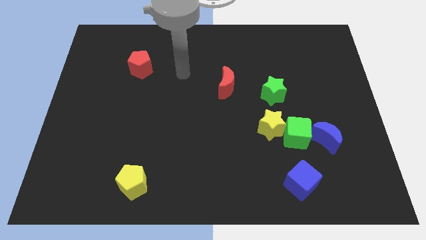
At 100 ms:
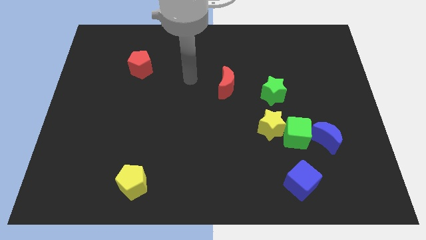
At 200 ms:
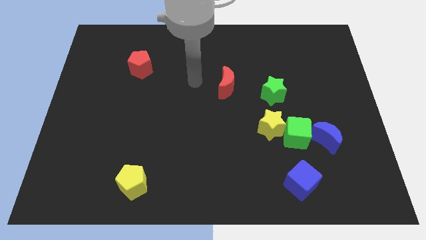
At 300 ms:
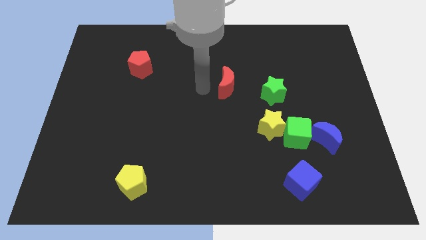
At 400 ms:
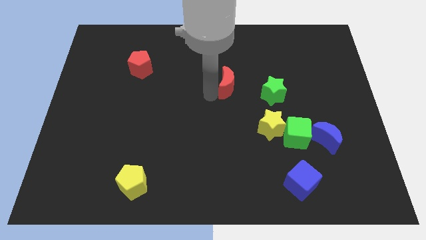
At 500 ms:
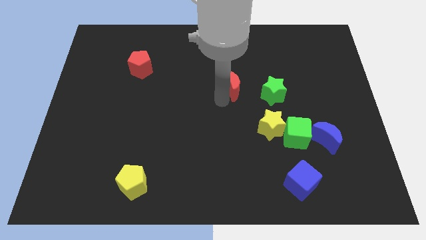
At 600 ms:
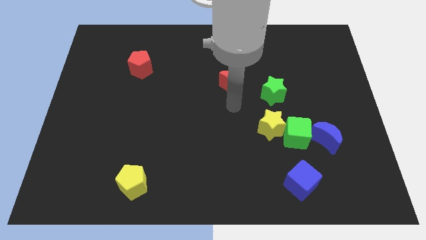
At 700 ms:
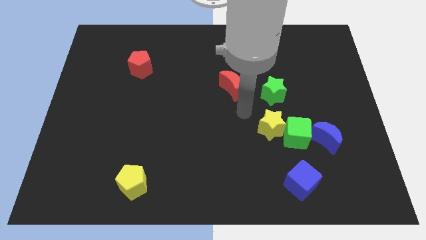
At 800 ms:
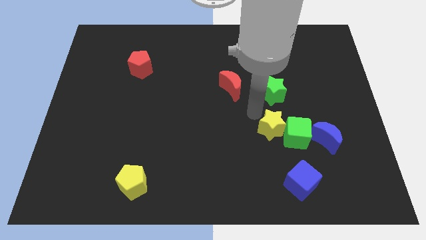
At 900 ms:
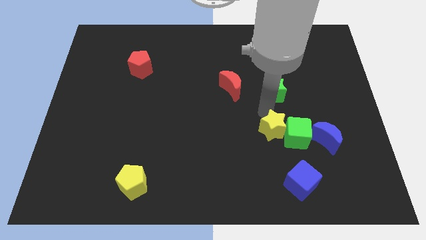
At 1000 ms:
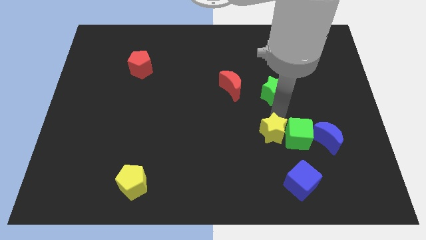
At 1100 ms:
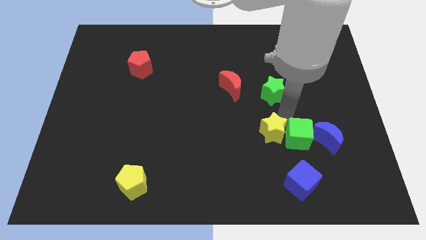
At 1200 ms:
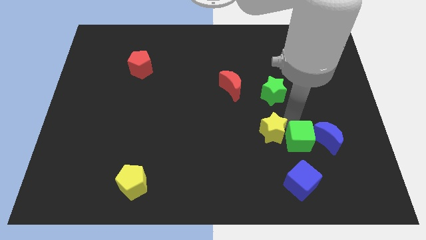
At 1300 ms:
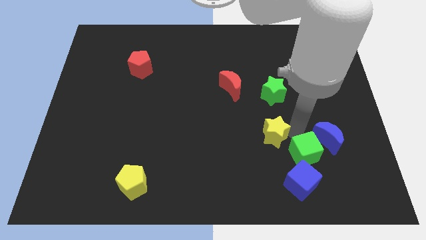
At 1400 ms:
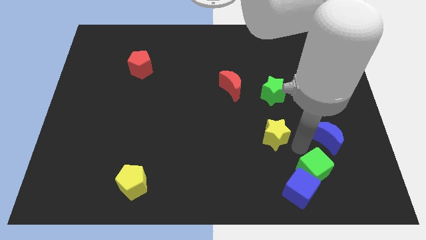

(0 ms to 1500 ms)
pull the yellow star apart from the green cube

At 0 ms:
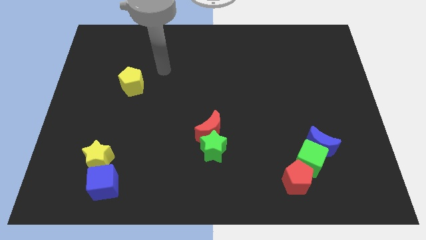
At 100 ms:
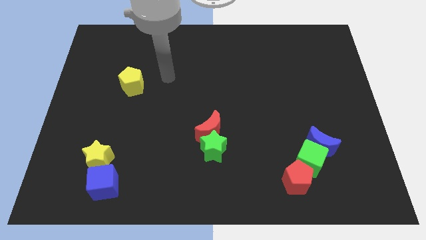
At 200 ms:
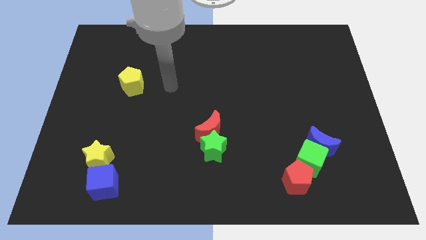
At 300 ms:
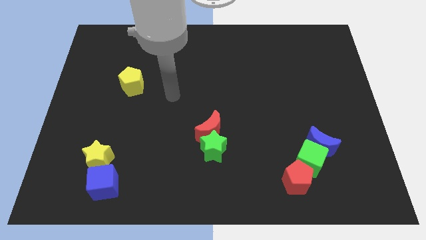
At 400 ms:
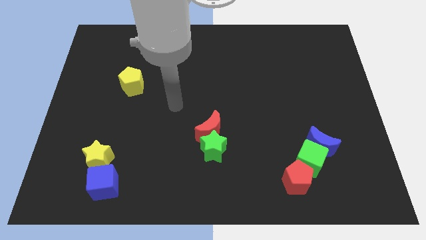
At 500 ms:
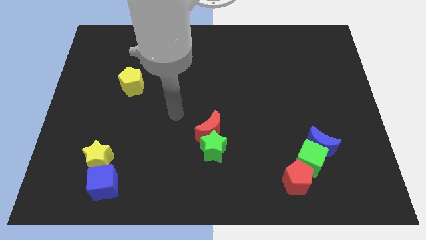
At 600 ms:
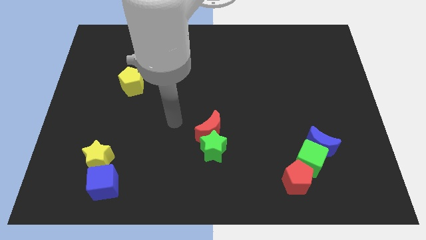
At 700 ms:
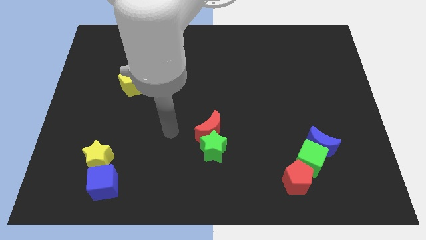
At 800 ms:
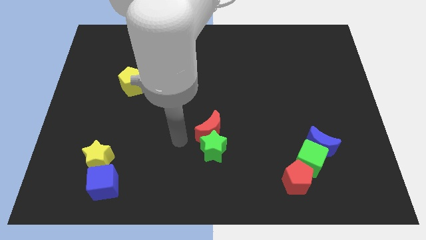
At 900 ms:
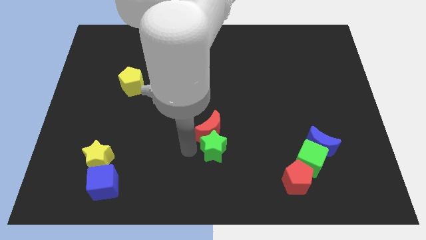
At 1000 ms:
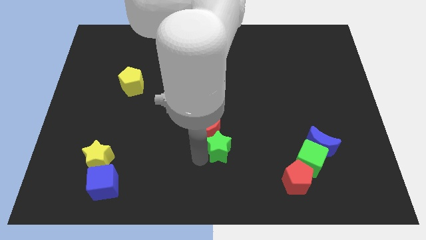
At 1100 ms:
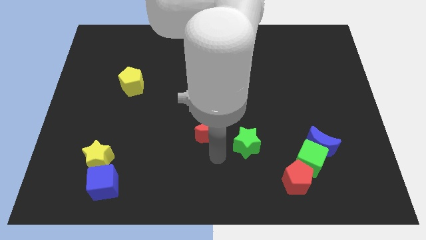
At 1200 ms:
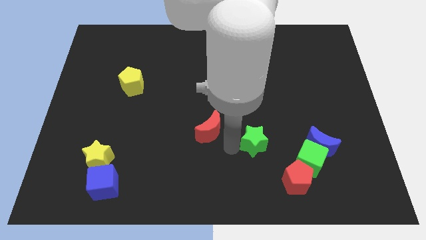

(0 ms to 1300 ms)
move the red moon away from the green star

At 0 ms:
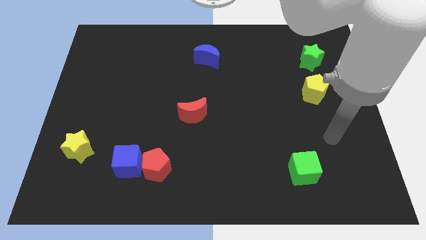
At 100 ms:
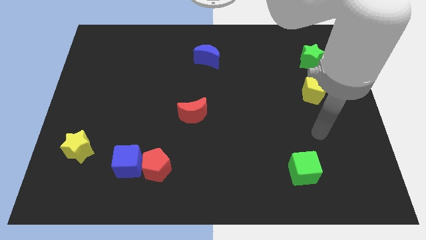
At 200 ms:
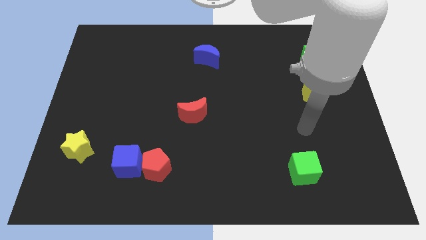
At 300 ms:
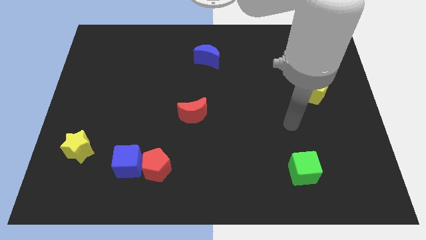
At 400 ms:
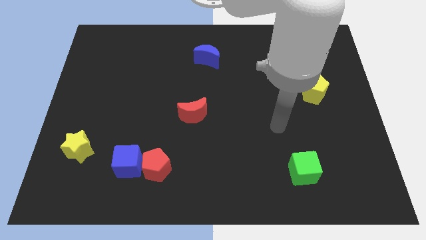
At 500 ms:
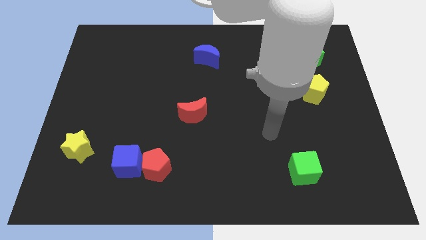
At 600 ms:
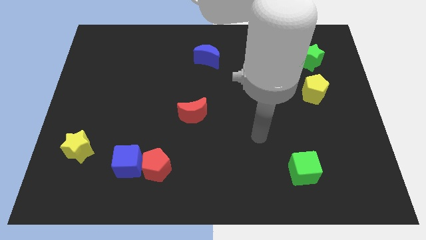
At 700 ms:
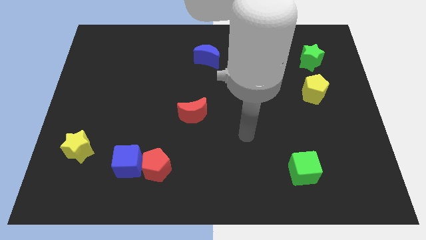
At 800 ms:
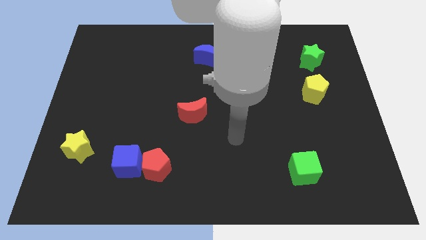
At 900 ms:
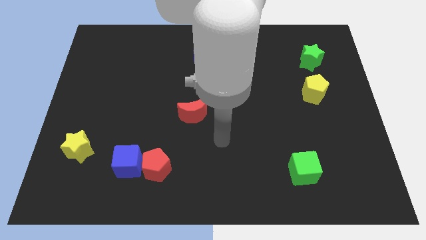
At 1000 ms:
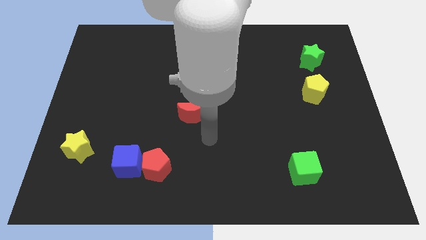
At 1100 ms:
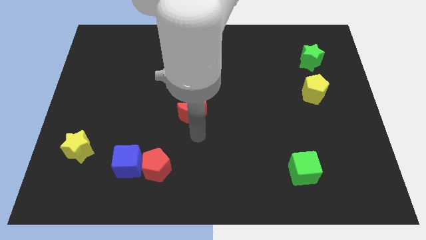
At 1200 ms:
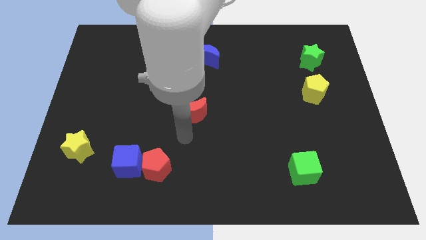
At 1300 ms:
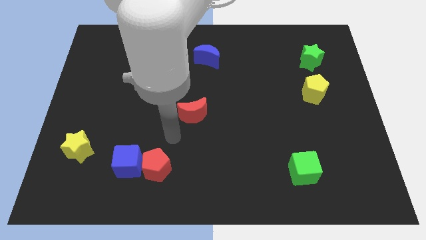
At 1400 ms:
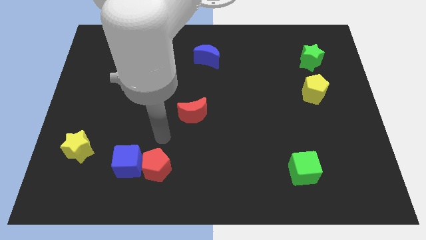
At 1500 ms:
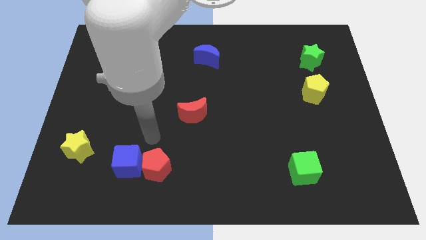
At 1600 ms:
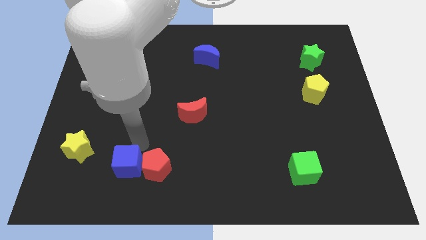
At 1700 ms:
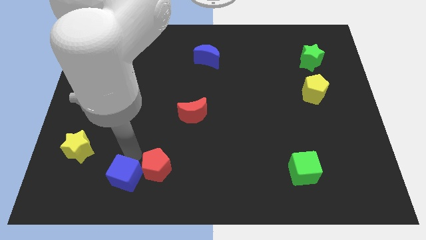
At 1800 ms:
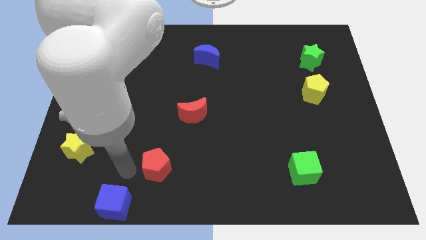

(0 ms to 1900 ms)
move the red pentagon away from the blue cube

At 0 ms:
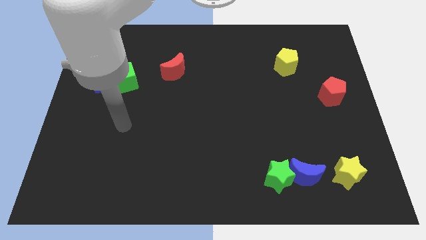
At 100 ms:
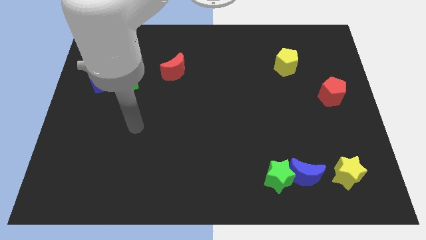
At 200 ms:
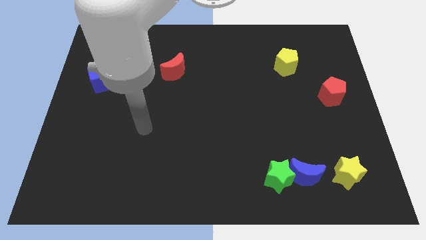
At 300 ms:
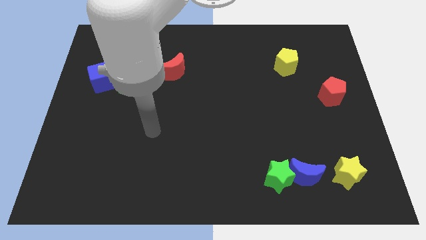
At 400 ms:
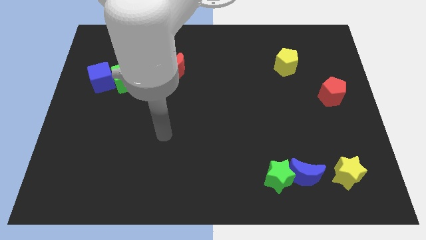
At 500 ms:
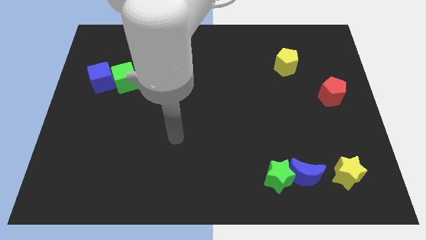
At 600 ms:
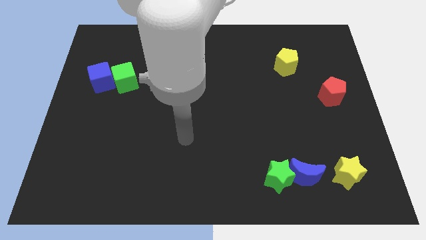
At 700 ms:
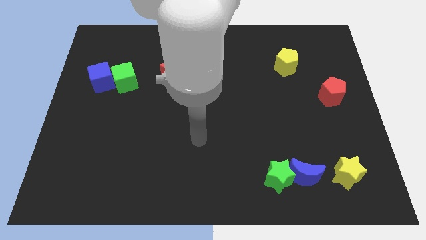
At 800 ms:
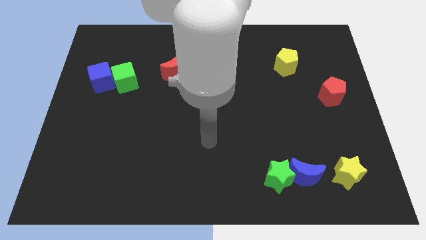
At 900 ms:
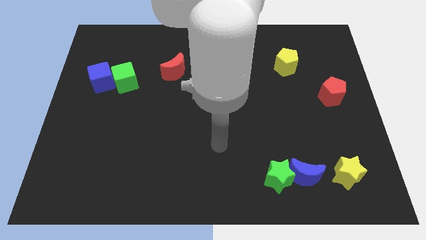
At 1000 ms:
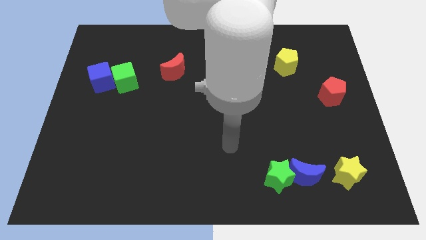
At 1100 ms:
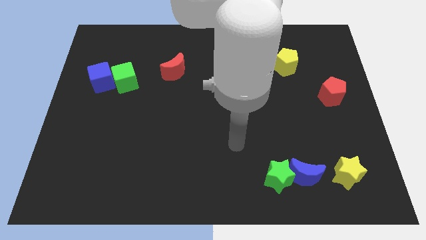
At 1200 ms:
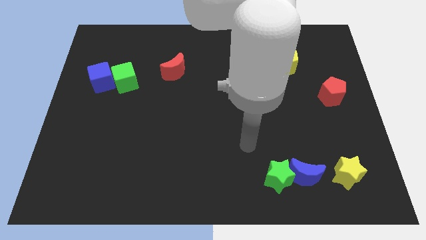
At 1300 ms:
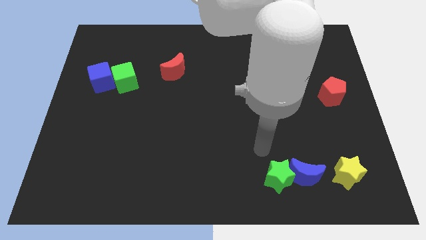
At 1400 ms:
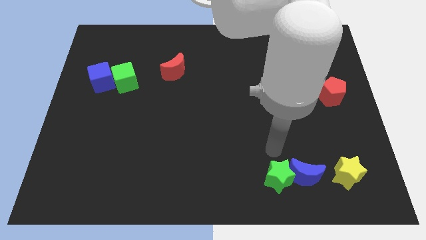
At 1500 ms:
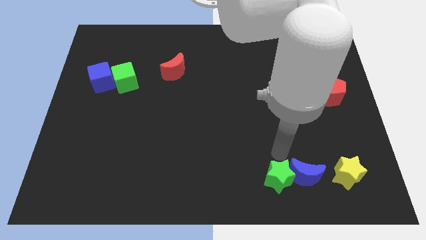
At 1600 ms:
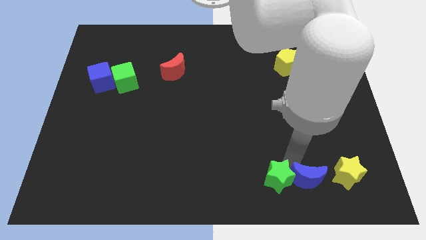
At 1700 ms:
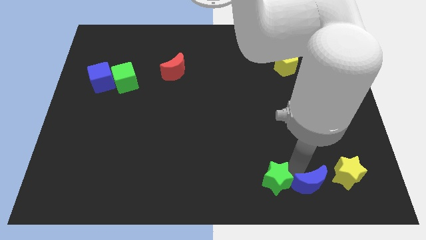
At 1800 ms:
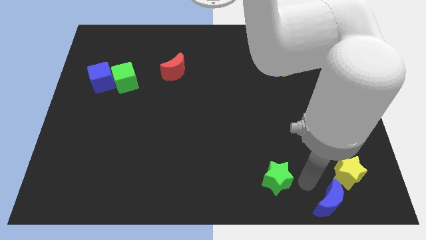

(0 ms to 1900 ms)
pull the green star apart from the blue moon

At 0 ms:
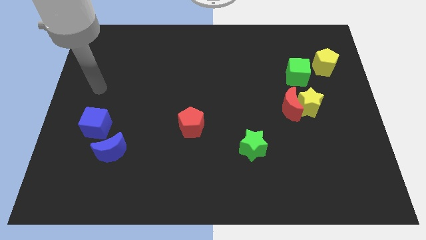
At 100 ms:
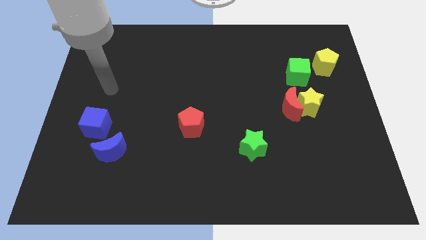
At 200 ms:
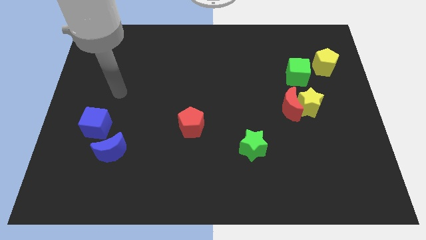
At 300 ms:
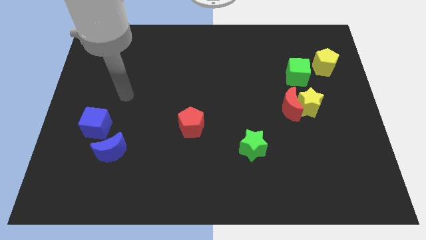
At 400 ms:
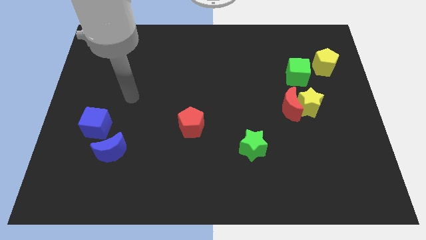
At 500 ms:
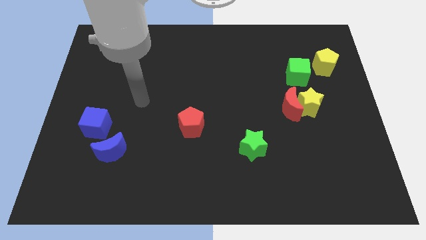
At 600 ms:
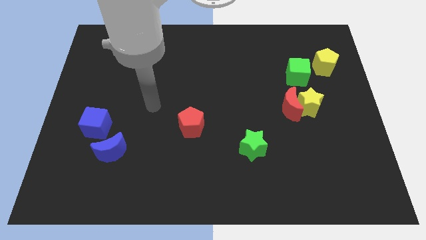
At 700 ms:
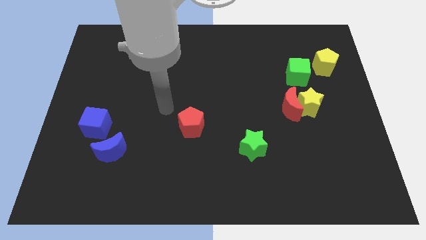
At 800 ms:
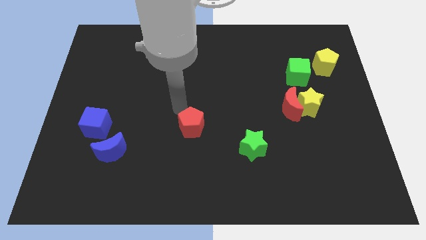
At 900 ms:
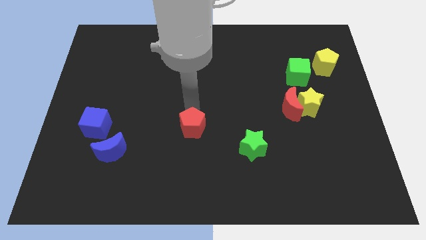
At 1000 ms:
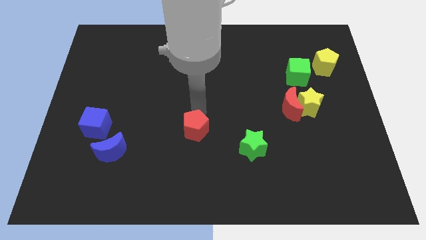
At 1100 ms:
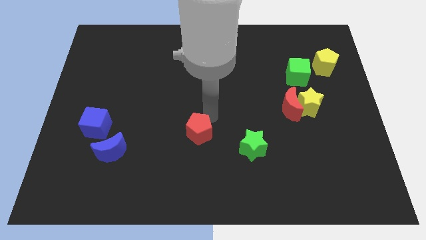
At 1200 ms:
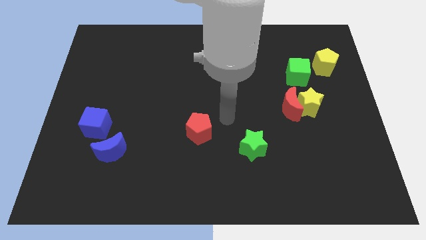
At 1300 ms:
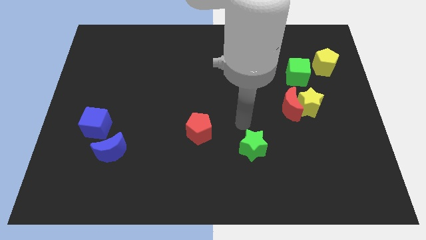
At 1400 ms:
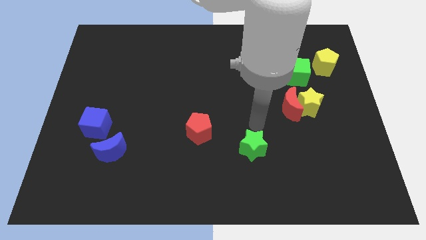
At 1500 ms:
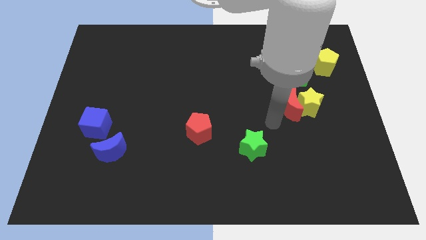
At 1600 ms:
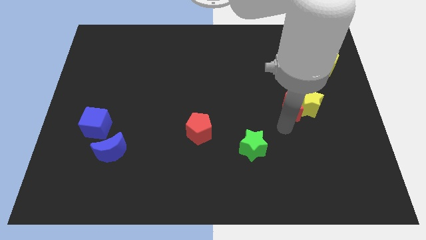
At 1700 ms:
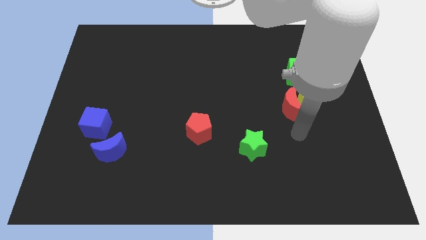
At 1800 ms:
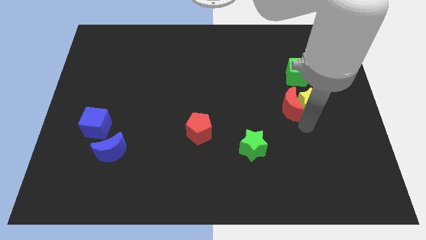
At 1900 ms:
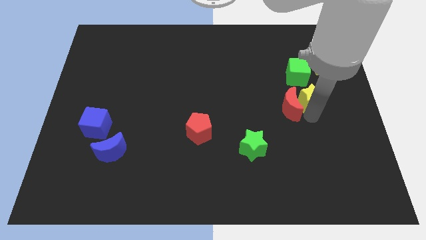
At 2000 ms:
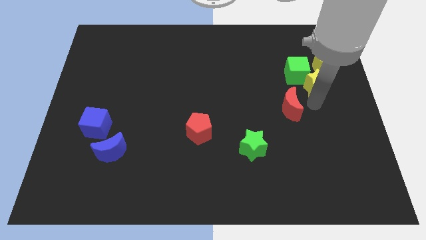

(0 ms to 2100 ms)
separate the red moon from the yellow star

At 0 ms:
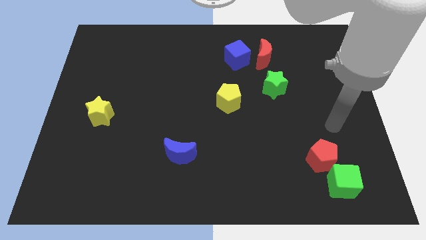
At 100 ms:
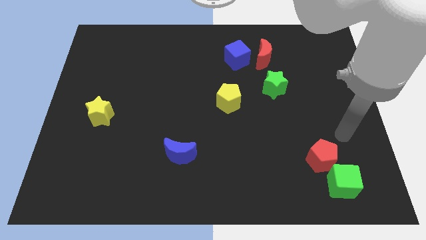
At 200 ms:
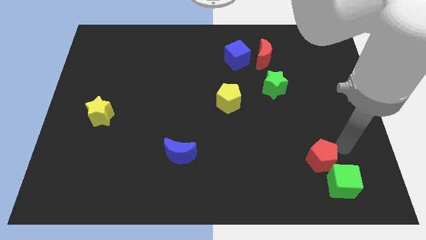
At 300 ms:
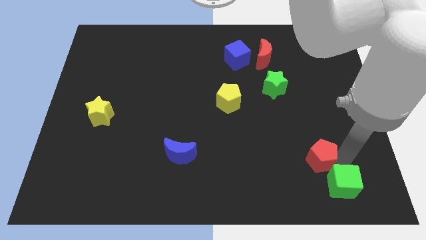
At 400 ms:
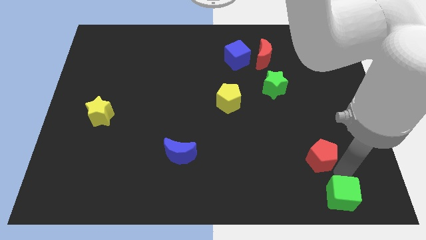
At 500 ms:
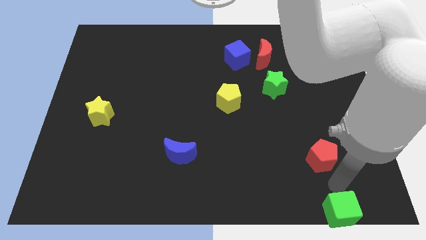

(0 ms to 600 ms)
pull the red pentagon apart from the green cube

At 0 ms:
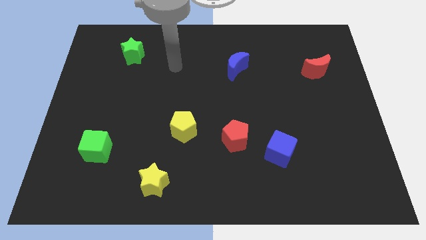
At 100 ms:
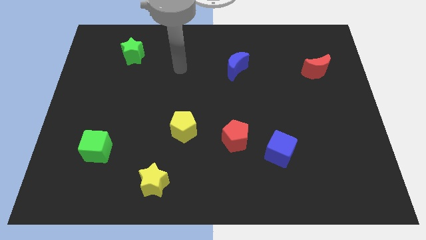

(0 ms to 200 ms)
pull the red pentagon apart from the blue cube
